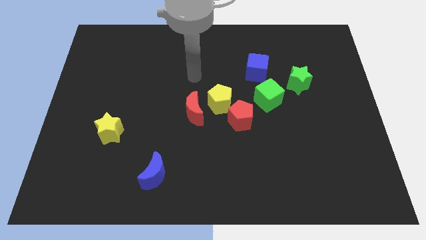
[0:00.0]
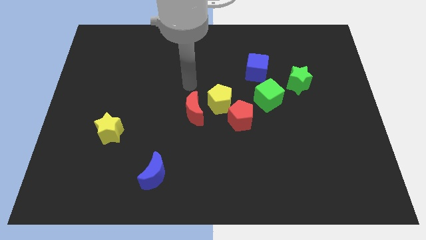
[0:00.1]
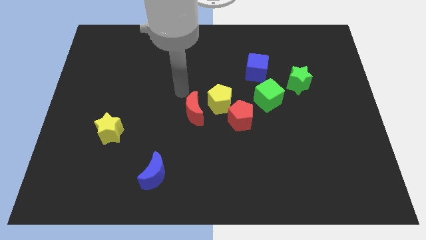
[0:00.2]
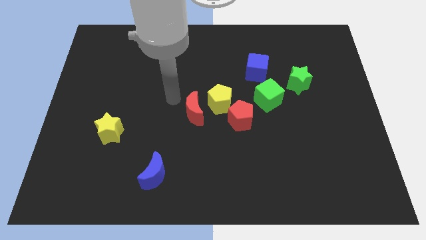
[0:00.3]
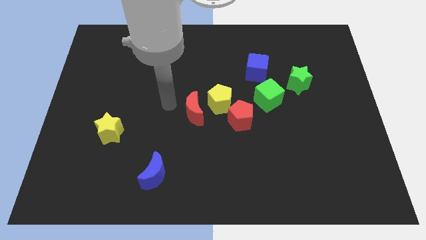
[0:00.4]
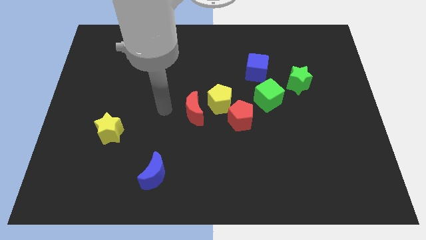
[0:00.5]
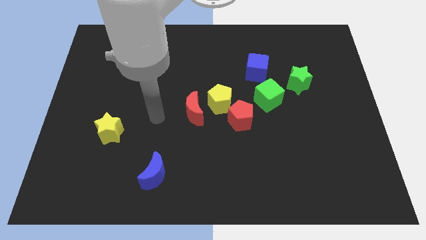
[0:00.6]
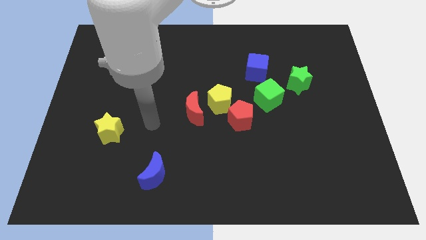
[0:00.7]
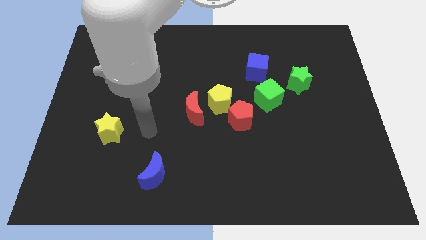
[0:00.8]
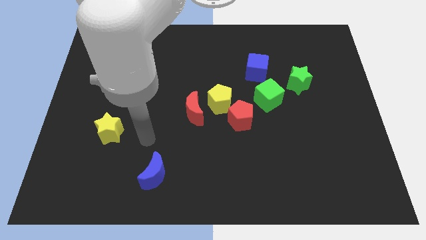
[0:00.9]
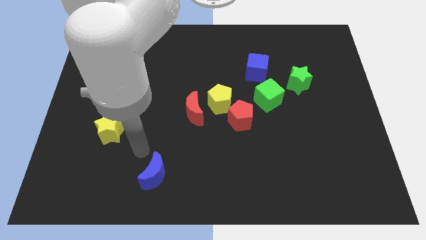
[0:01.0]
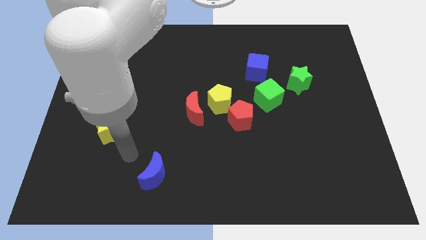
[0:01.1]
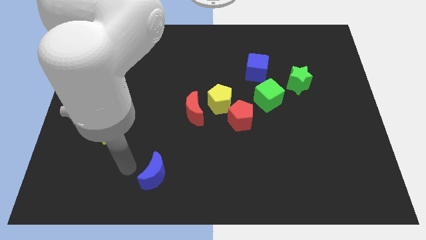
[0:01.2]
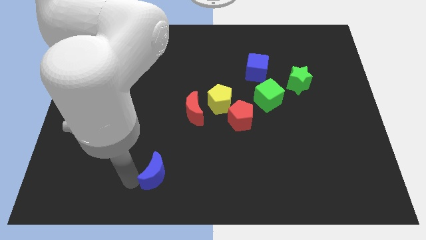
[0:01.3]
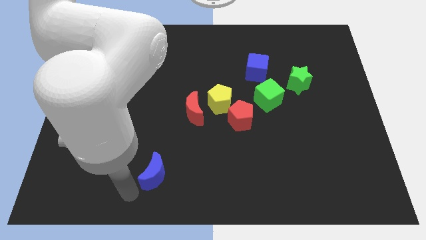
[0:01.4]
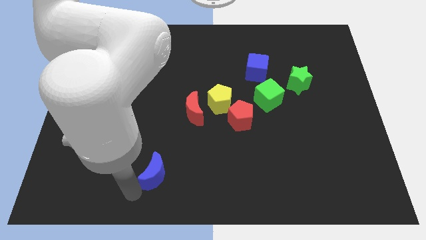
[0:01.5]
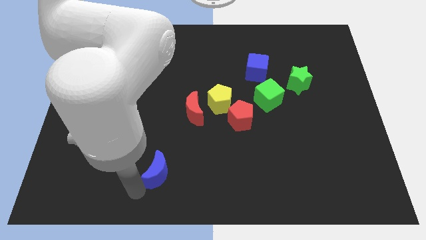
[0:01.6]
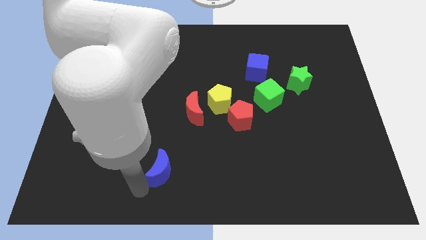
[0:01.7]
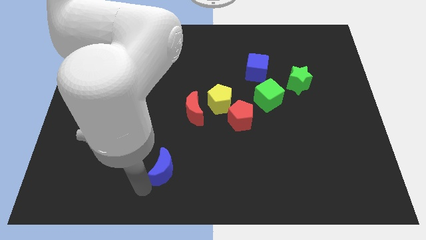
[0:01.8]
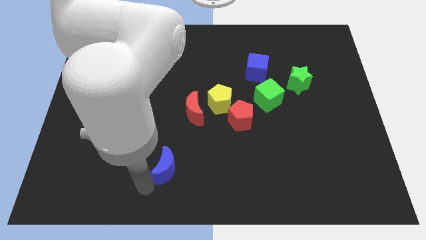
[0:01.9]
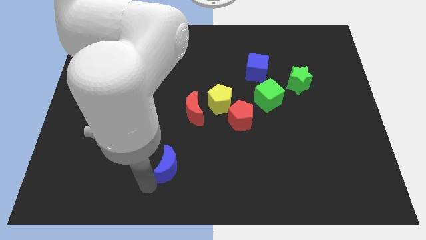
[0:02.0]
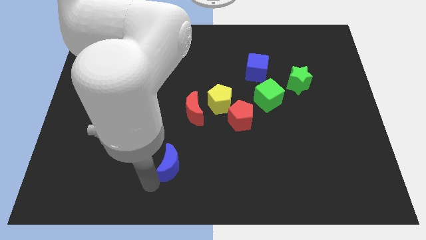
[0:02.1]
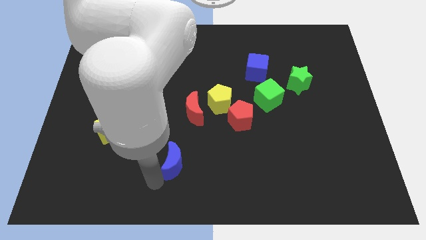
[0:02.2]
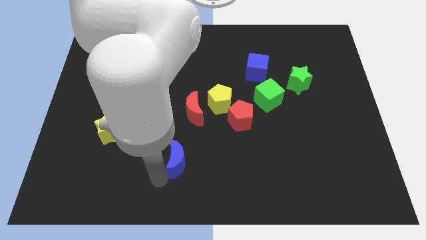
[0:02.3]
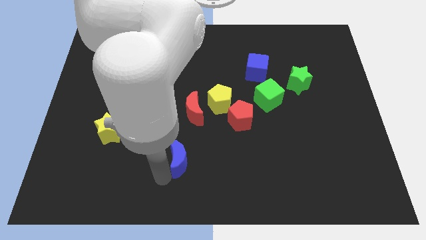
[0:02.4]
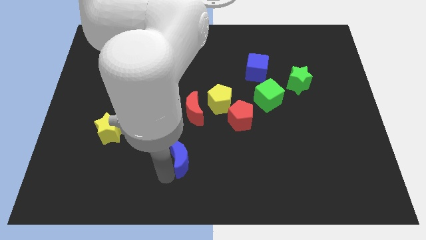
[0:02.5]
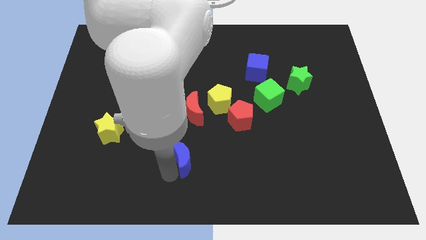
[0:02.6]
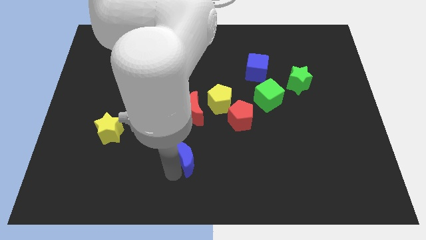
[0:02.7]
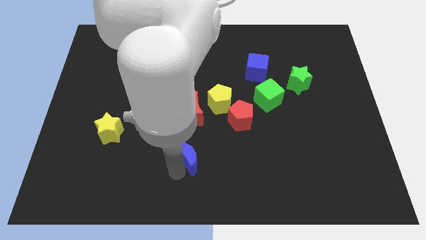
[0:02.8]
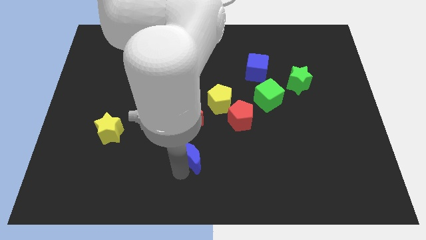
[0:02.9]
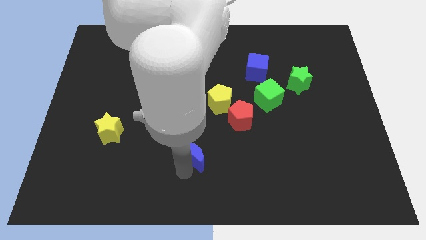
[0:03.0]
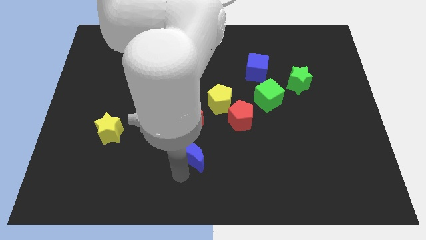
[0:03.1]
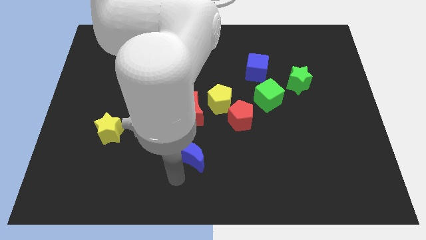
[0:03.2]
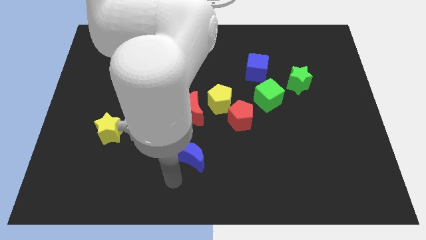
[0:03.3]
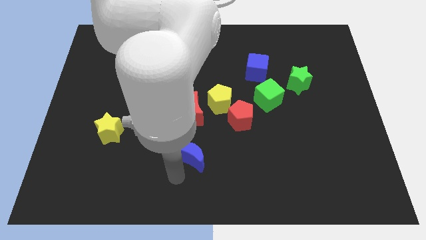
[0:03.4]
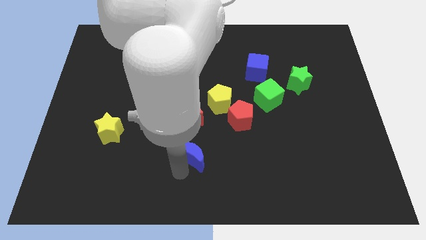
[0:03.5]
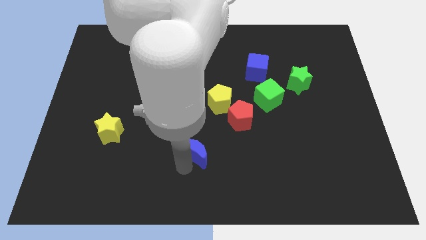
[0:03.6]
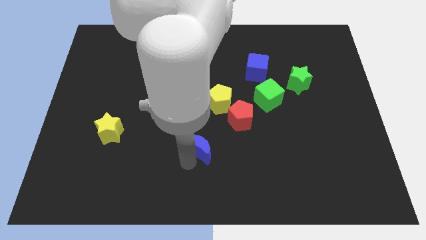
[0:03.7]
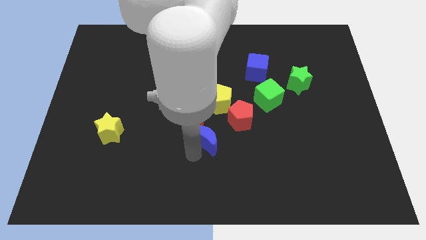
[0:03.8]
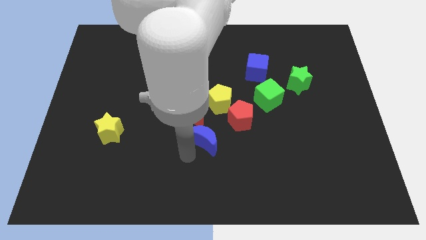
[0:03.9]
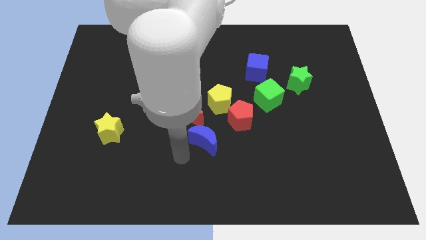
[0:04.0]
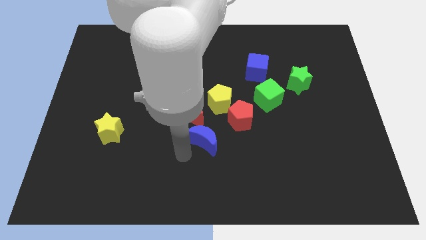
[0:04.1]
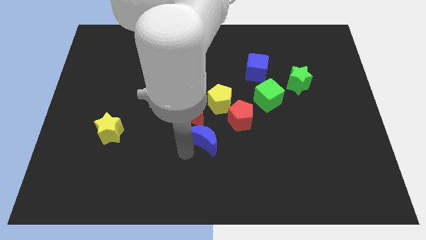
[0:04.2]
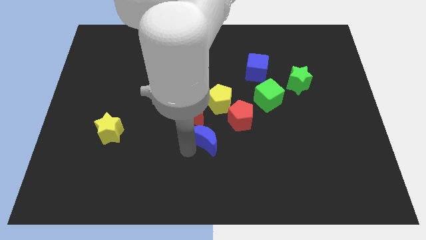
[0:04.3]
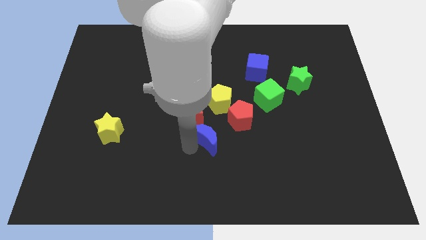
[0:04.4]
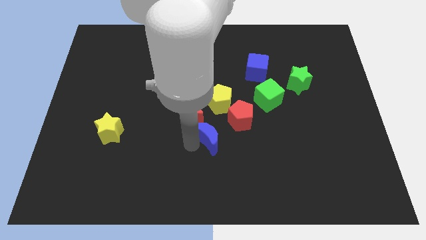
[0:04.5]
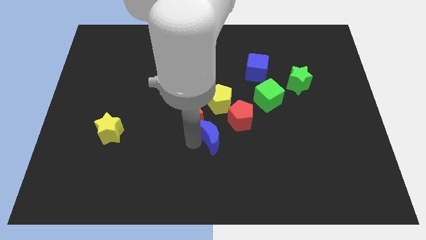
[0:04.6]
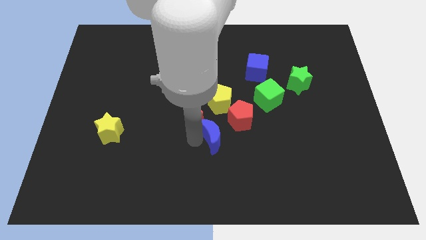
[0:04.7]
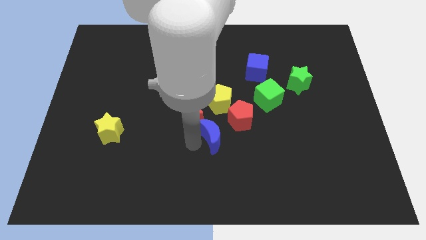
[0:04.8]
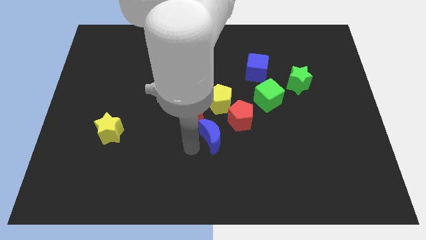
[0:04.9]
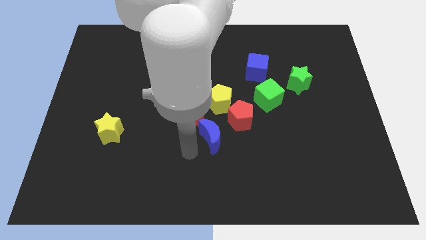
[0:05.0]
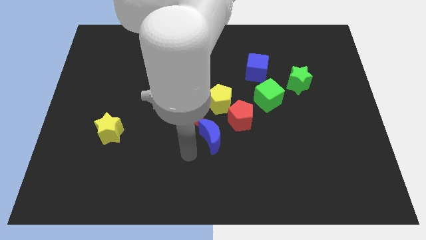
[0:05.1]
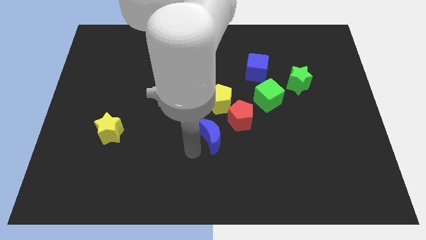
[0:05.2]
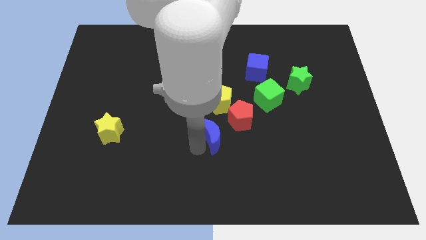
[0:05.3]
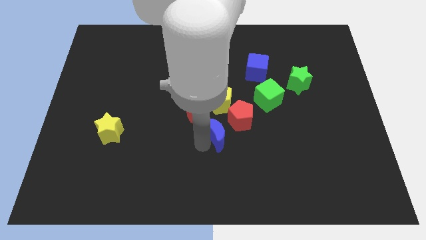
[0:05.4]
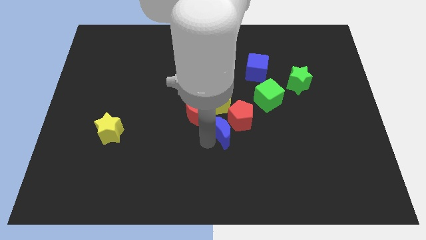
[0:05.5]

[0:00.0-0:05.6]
move the blue moon to the red pentagon

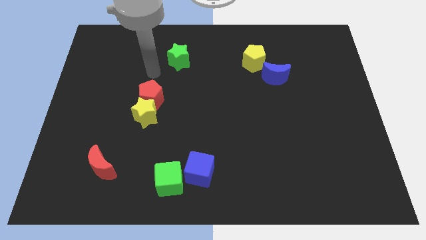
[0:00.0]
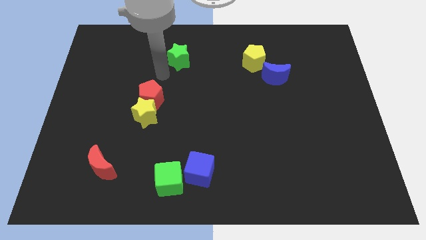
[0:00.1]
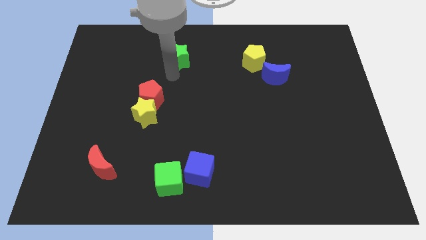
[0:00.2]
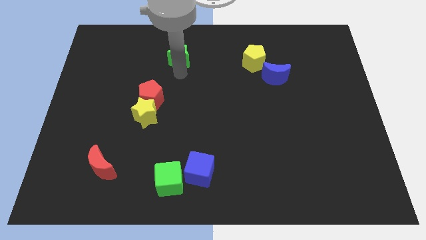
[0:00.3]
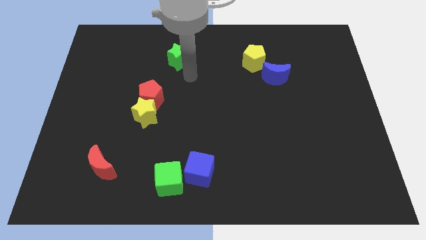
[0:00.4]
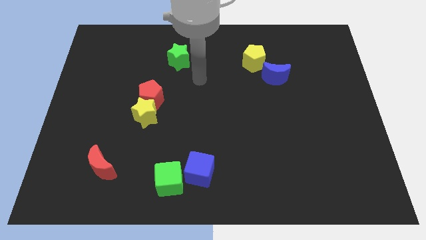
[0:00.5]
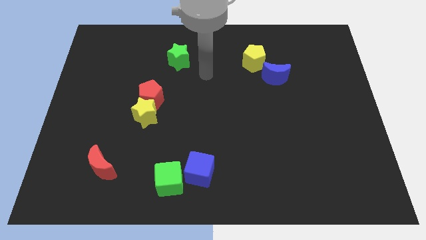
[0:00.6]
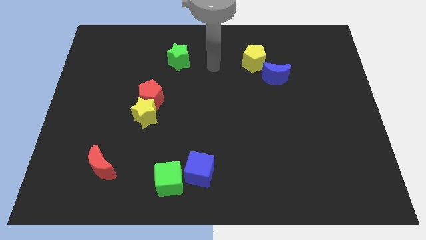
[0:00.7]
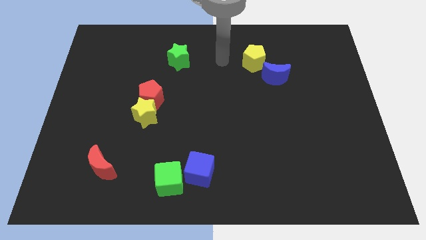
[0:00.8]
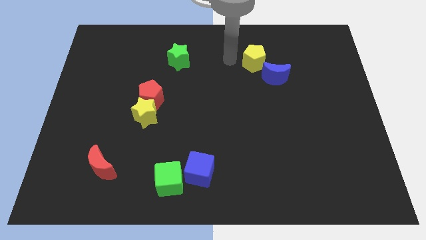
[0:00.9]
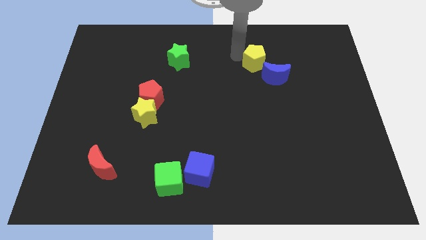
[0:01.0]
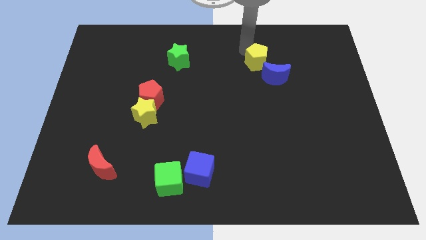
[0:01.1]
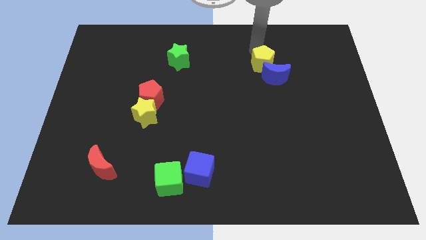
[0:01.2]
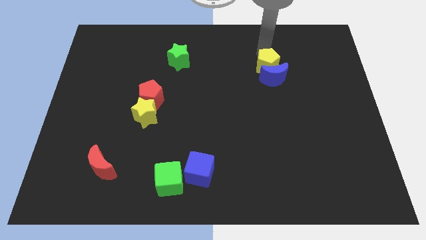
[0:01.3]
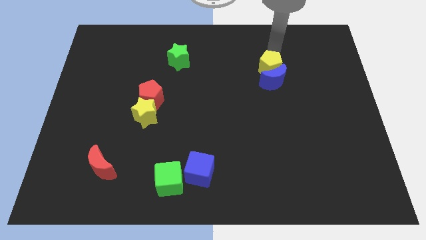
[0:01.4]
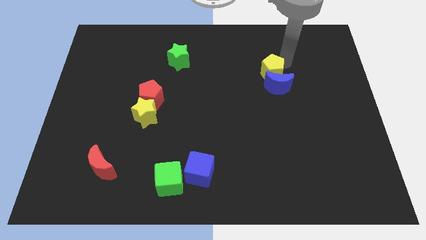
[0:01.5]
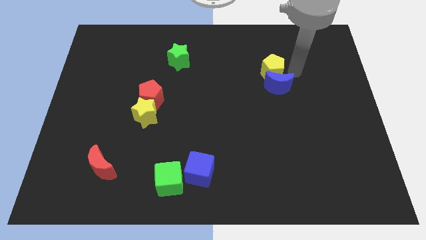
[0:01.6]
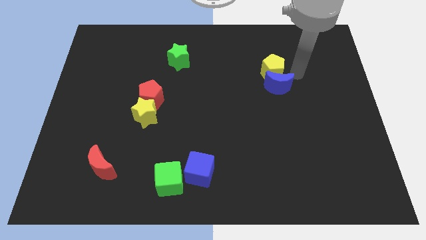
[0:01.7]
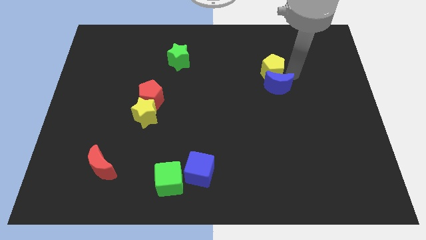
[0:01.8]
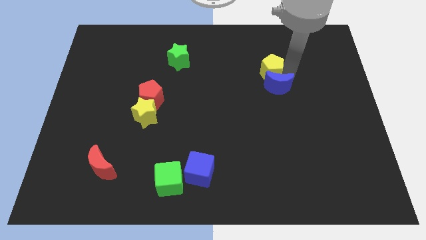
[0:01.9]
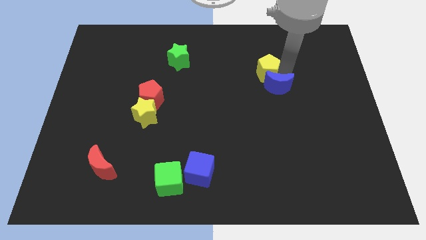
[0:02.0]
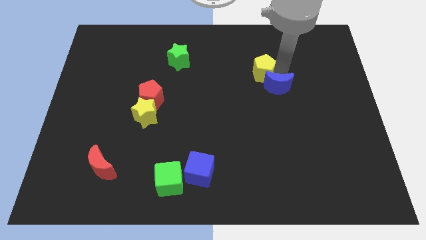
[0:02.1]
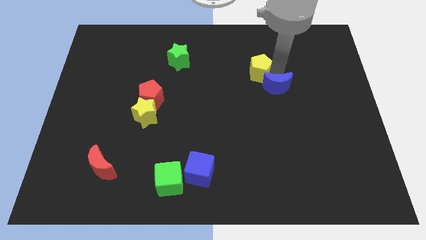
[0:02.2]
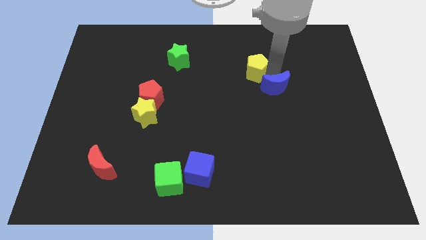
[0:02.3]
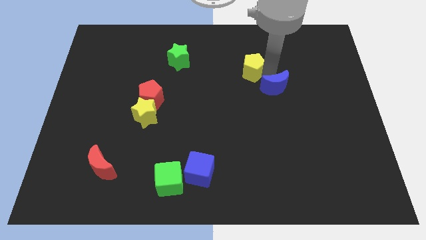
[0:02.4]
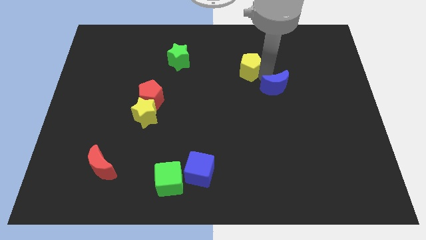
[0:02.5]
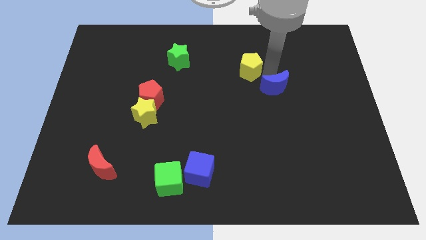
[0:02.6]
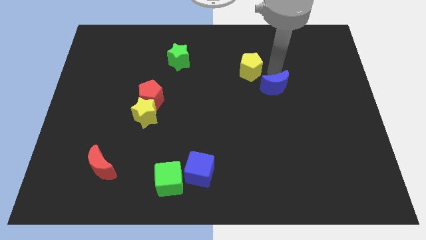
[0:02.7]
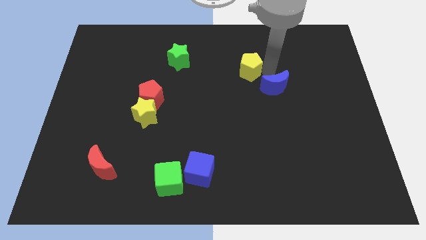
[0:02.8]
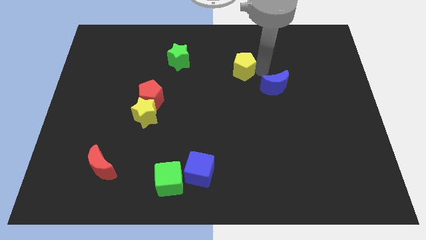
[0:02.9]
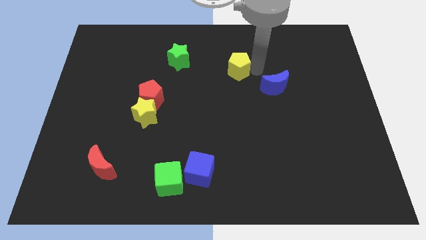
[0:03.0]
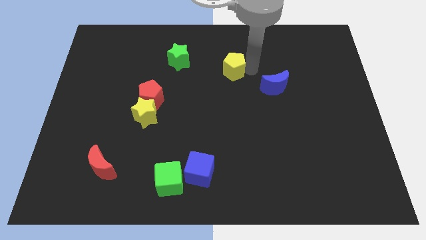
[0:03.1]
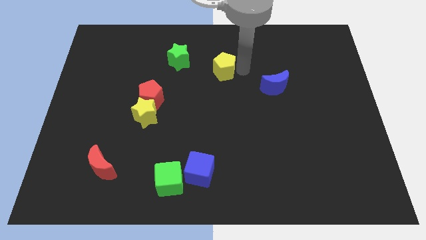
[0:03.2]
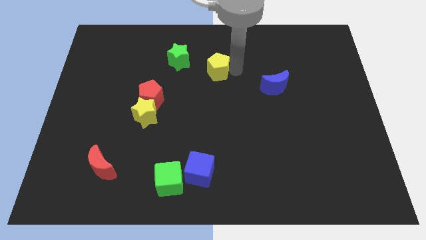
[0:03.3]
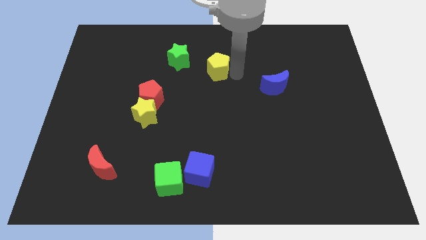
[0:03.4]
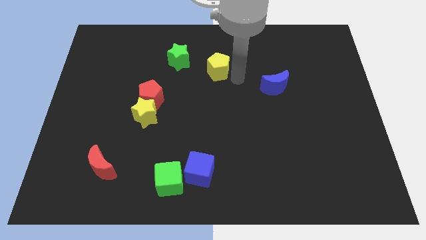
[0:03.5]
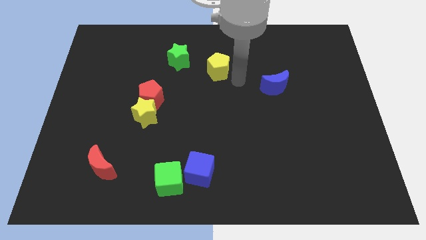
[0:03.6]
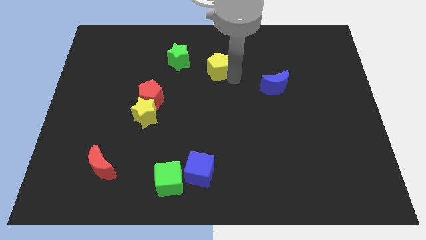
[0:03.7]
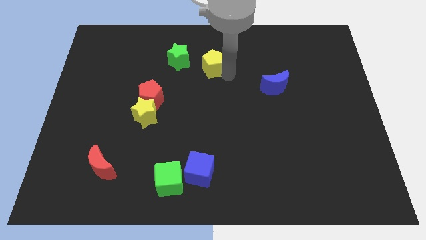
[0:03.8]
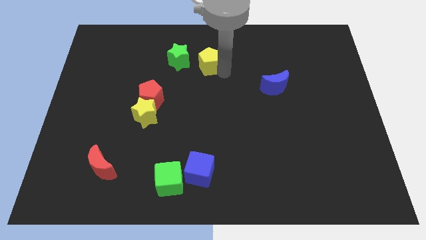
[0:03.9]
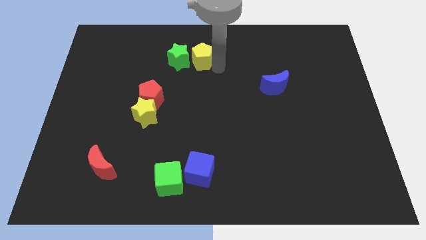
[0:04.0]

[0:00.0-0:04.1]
push the yellow pentagon towards the green star
